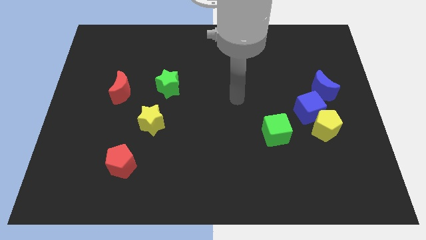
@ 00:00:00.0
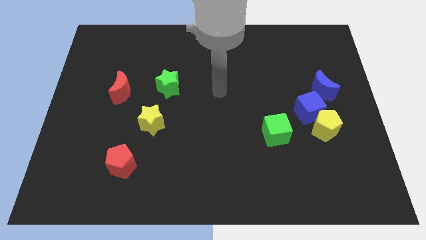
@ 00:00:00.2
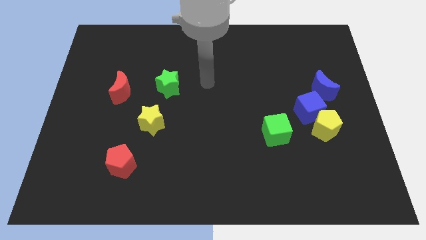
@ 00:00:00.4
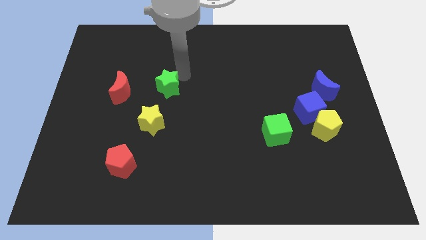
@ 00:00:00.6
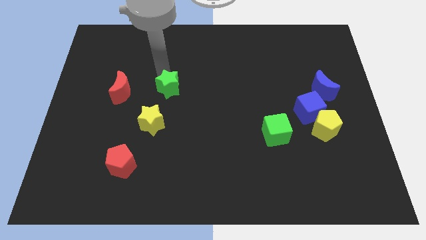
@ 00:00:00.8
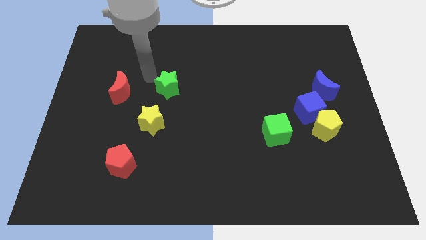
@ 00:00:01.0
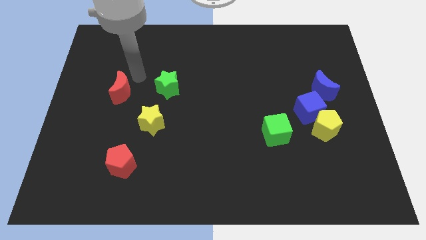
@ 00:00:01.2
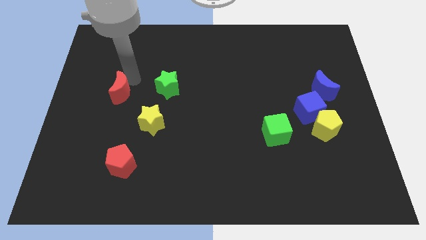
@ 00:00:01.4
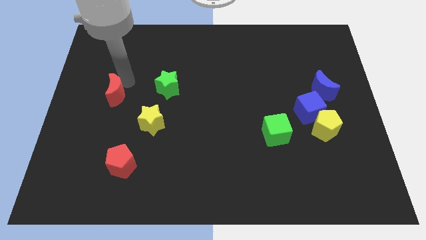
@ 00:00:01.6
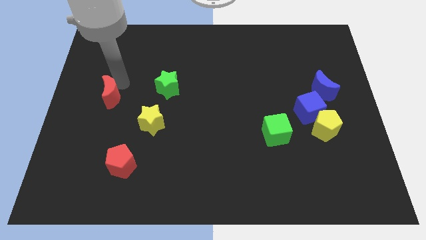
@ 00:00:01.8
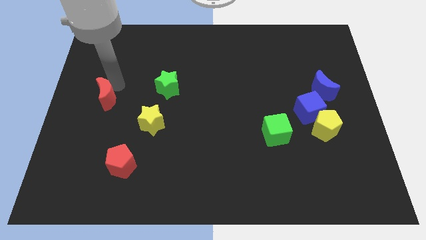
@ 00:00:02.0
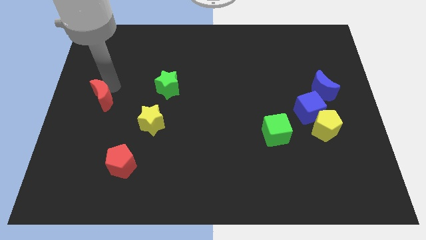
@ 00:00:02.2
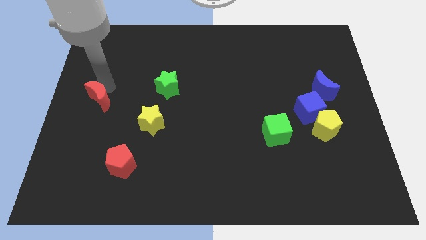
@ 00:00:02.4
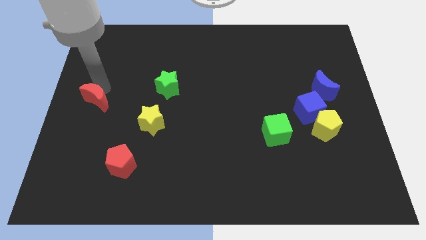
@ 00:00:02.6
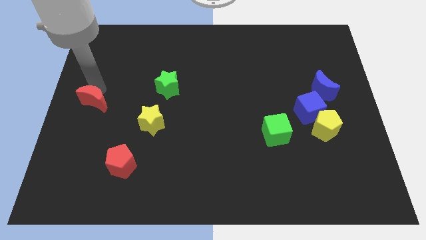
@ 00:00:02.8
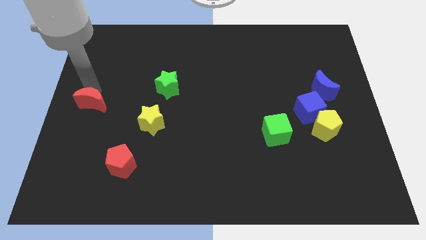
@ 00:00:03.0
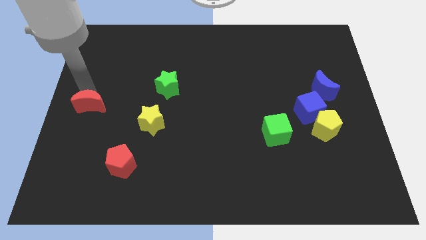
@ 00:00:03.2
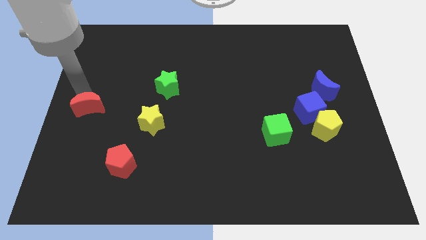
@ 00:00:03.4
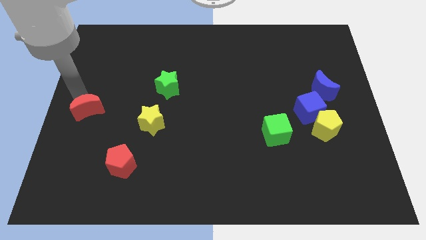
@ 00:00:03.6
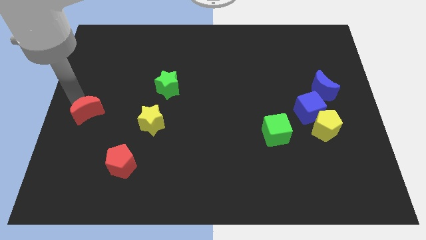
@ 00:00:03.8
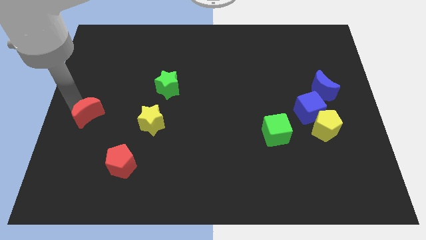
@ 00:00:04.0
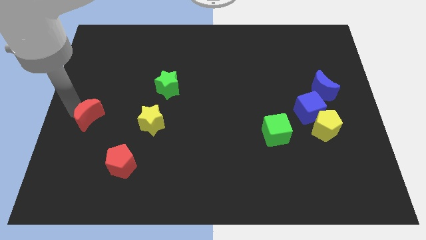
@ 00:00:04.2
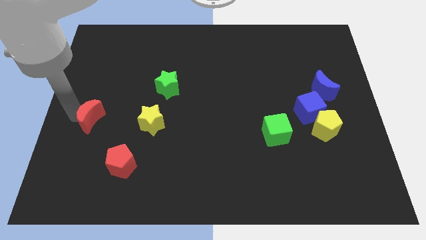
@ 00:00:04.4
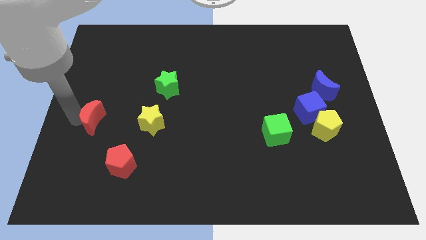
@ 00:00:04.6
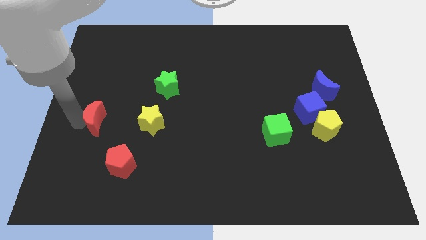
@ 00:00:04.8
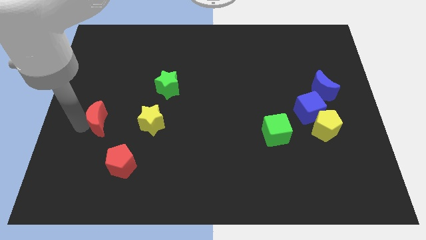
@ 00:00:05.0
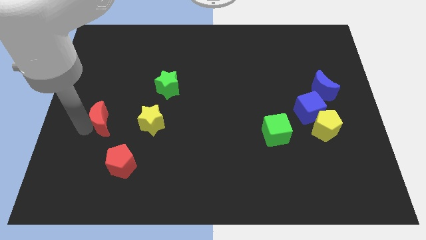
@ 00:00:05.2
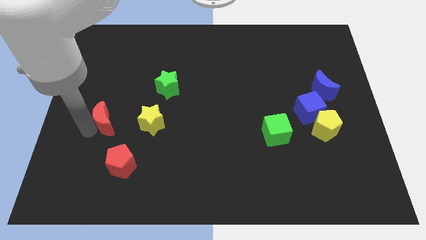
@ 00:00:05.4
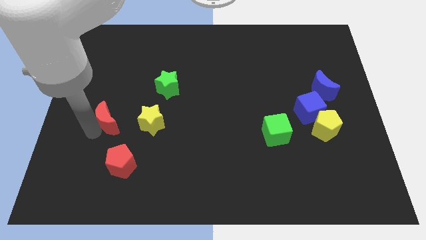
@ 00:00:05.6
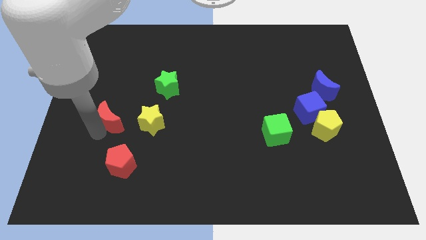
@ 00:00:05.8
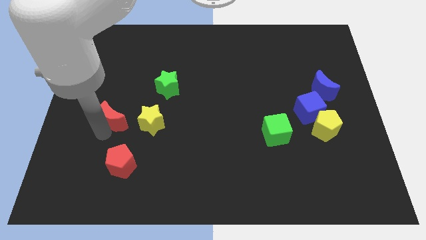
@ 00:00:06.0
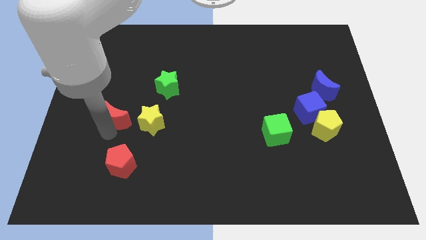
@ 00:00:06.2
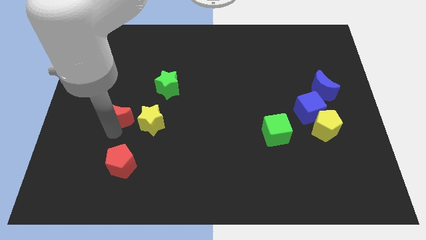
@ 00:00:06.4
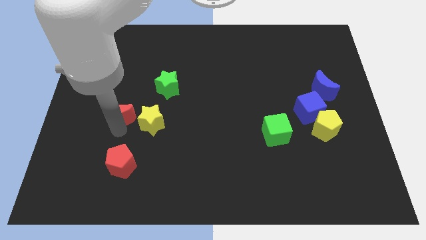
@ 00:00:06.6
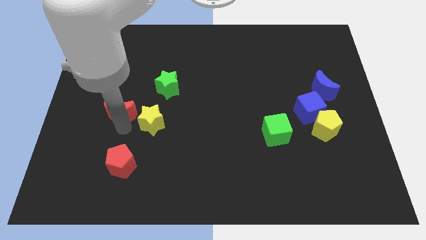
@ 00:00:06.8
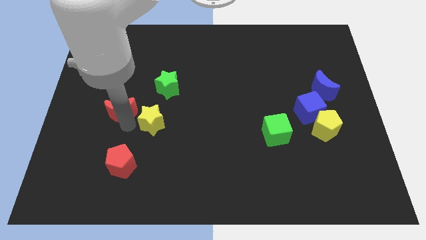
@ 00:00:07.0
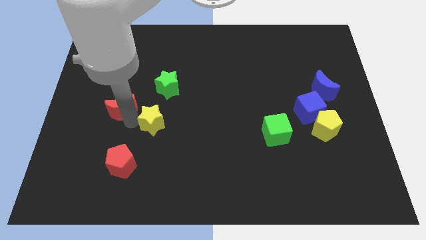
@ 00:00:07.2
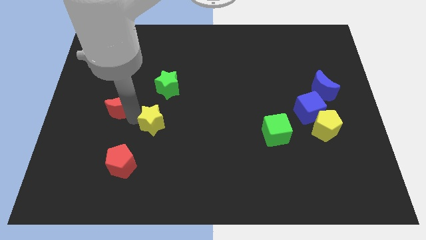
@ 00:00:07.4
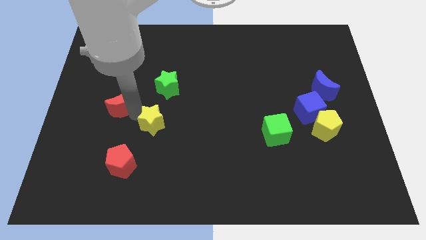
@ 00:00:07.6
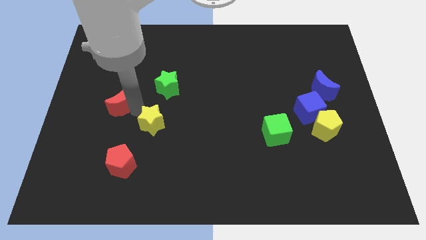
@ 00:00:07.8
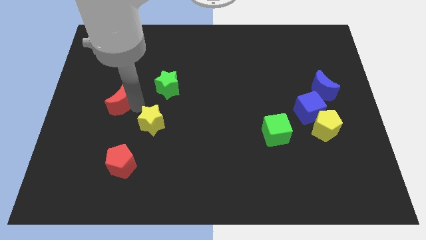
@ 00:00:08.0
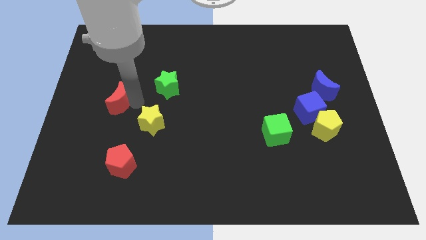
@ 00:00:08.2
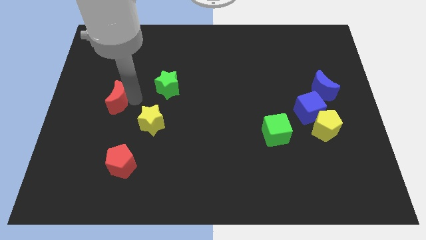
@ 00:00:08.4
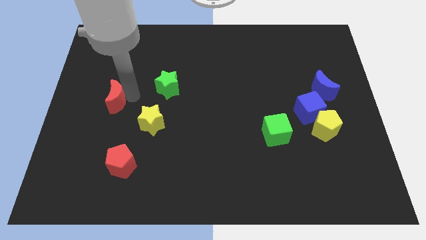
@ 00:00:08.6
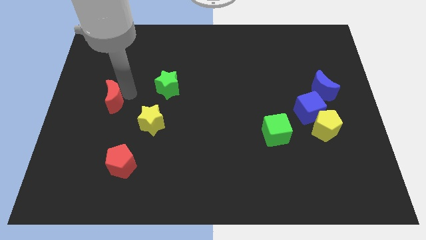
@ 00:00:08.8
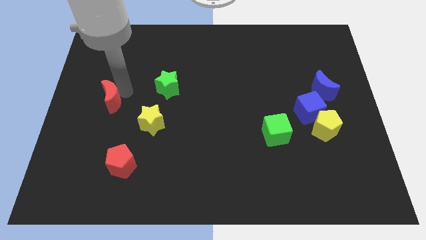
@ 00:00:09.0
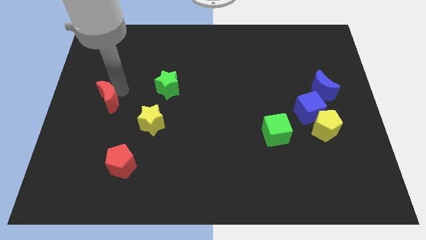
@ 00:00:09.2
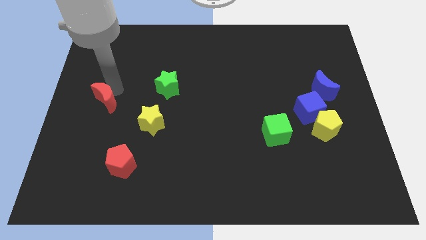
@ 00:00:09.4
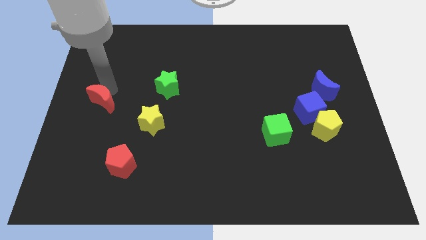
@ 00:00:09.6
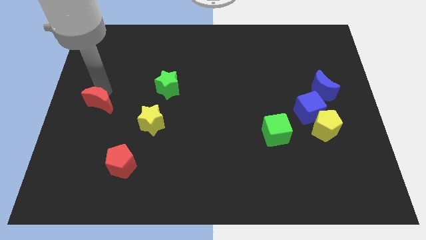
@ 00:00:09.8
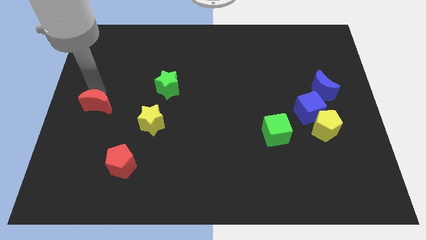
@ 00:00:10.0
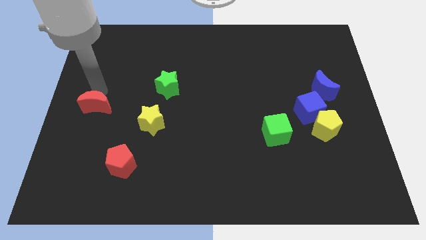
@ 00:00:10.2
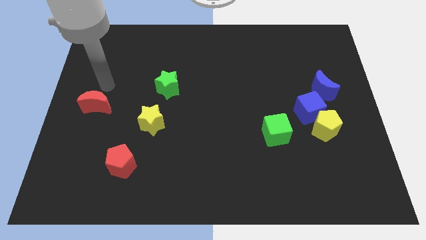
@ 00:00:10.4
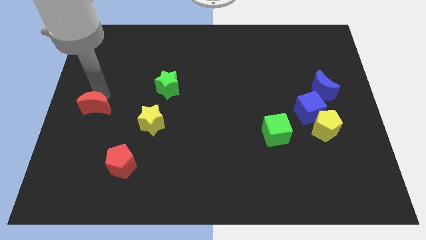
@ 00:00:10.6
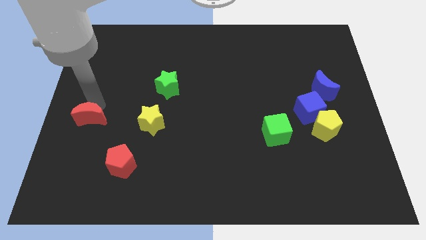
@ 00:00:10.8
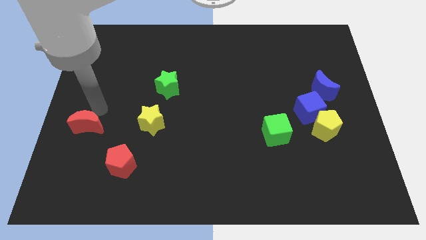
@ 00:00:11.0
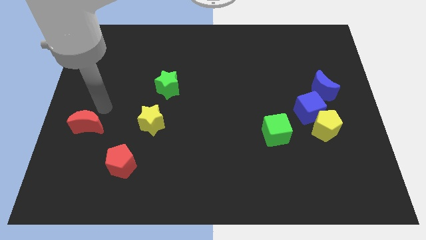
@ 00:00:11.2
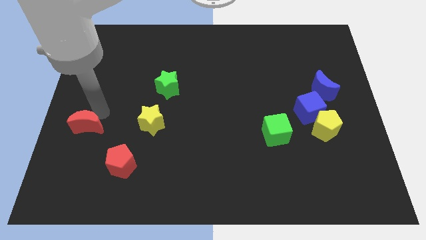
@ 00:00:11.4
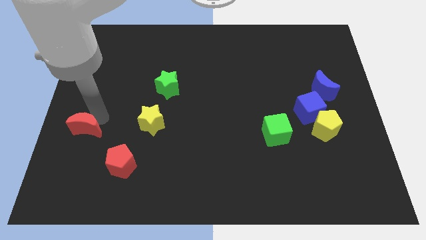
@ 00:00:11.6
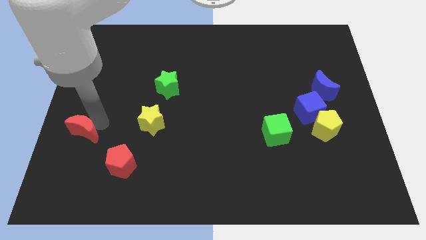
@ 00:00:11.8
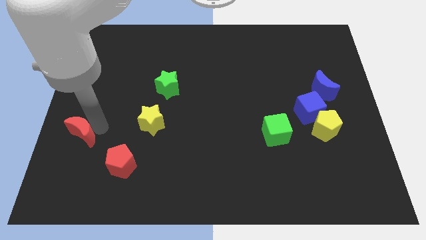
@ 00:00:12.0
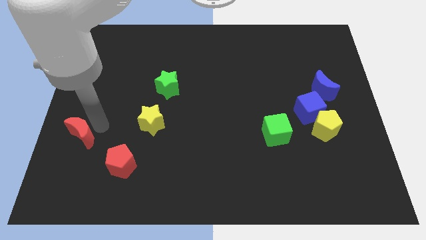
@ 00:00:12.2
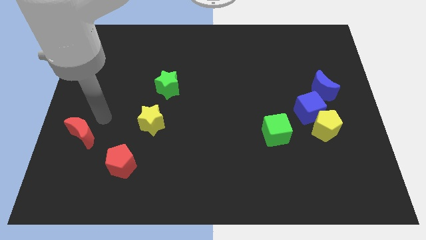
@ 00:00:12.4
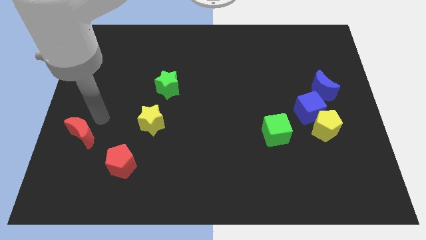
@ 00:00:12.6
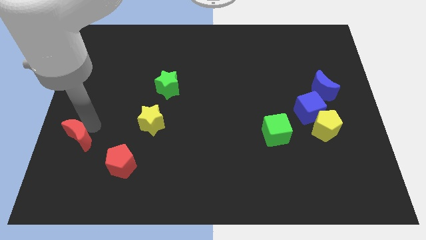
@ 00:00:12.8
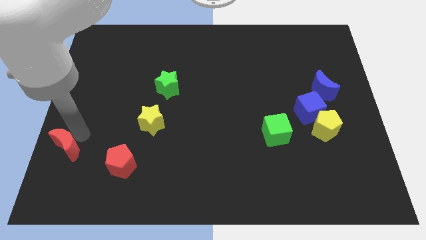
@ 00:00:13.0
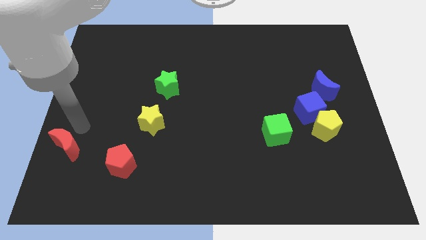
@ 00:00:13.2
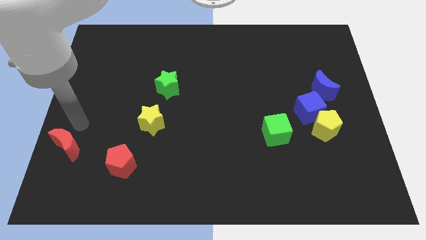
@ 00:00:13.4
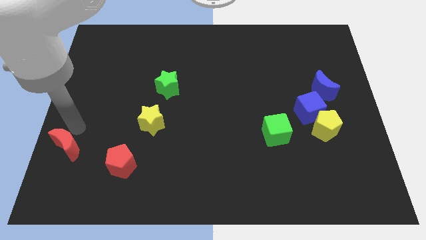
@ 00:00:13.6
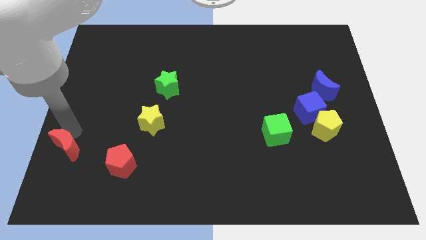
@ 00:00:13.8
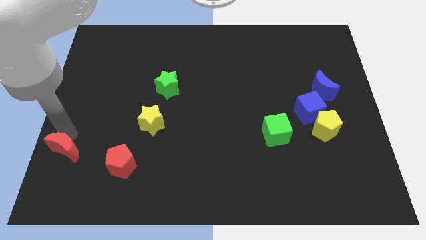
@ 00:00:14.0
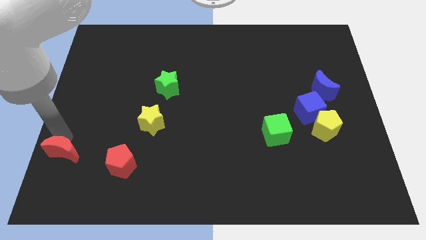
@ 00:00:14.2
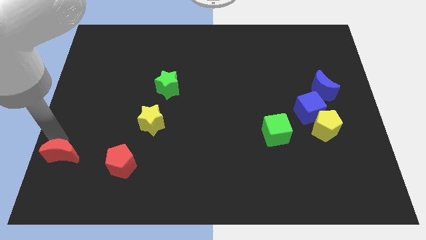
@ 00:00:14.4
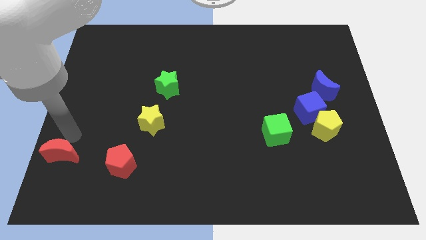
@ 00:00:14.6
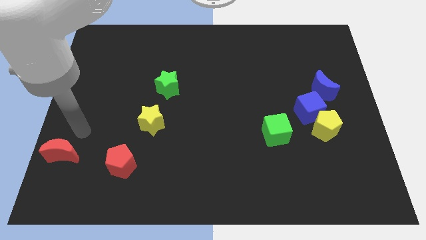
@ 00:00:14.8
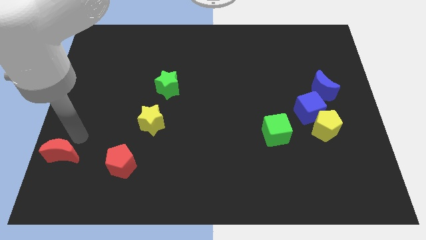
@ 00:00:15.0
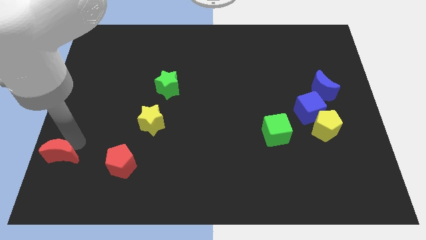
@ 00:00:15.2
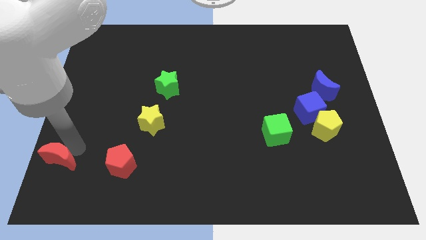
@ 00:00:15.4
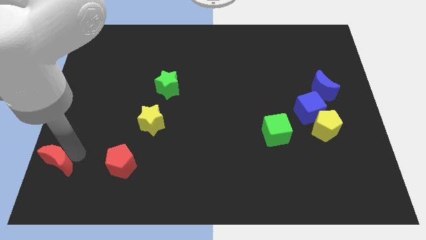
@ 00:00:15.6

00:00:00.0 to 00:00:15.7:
move the red moon to the bottom left corner
